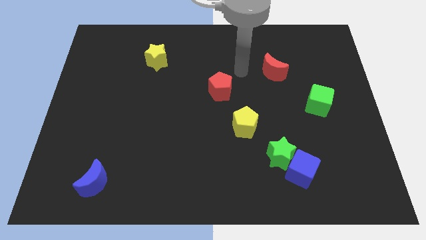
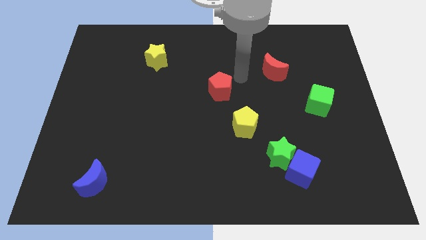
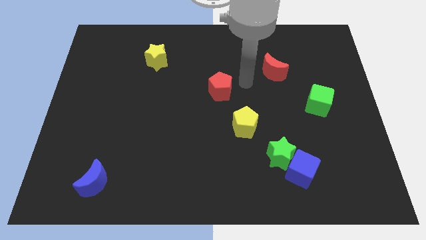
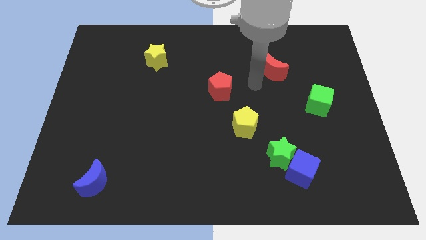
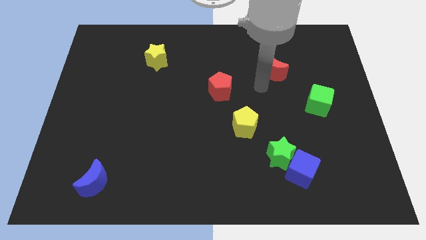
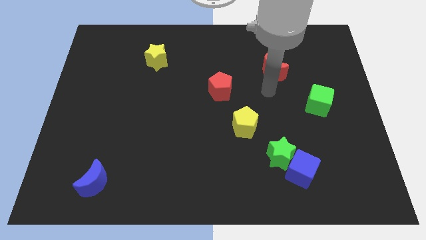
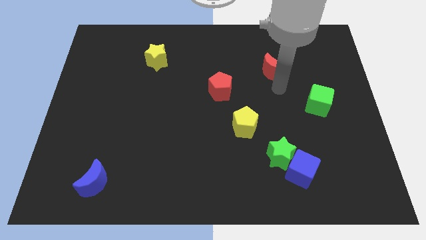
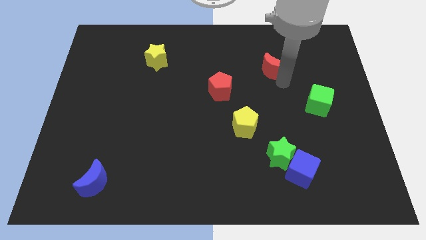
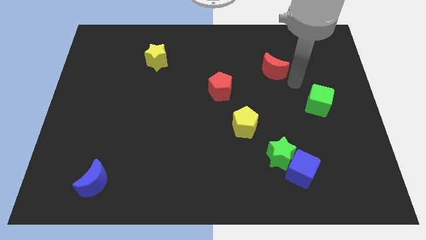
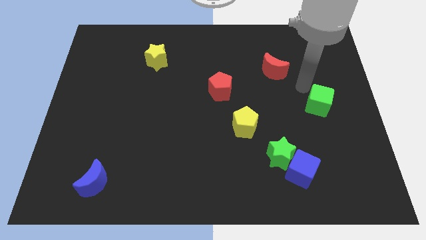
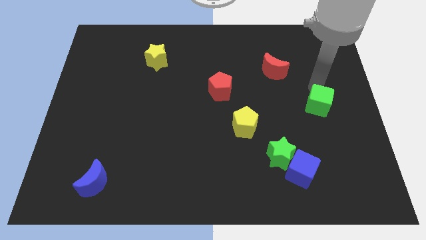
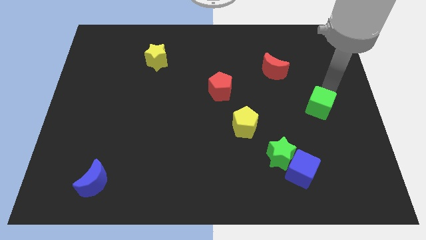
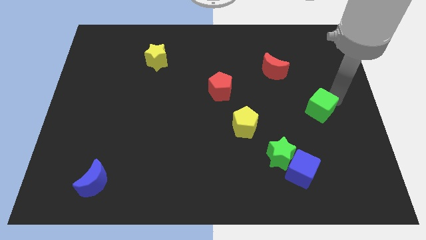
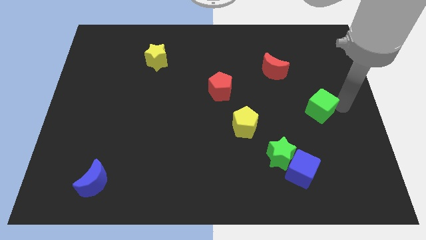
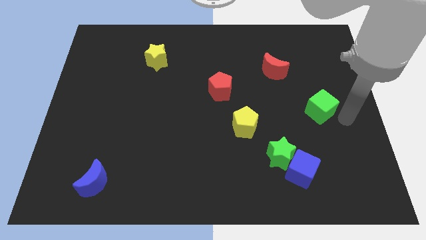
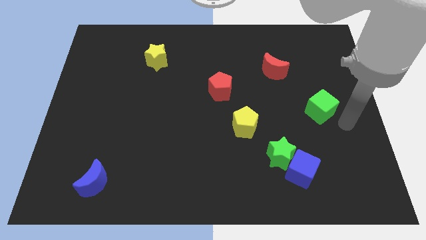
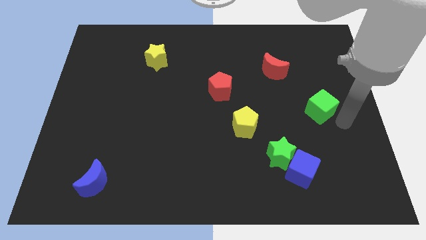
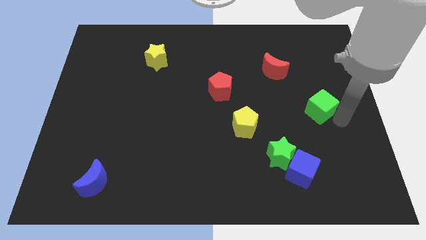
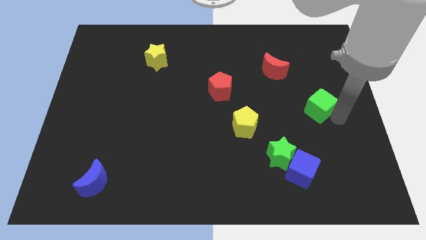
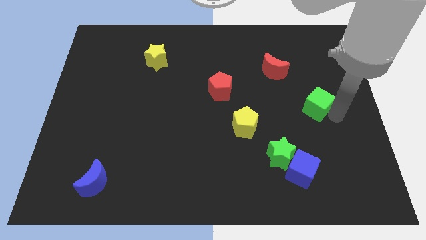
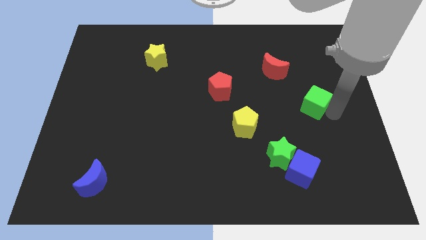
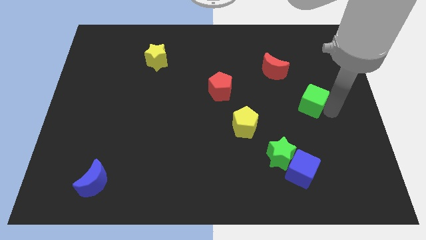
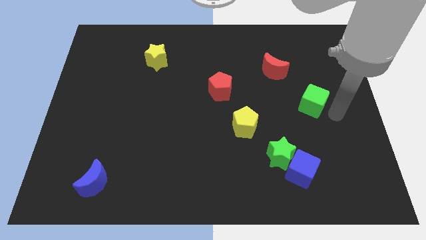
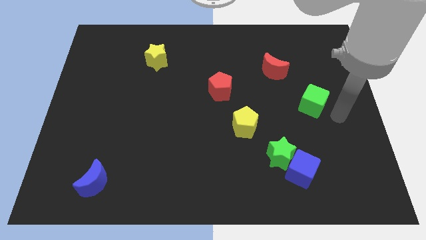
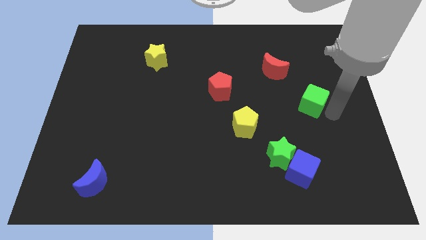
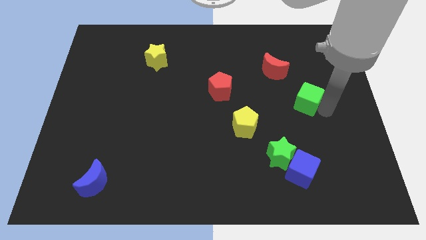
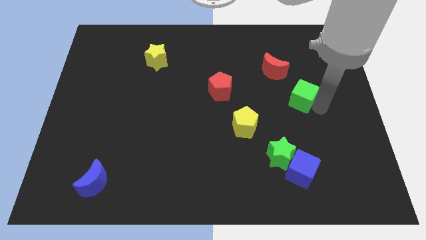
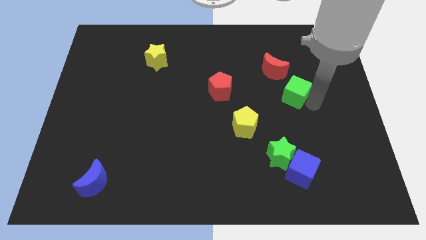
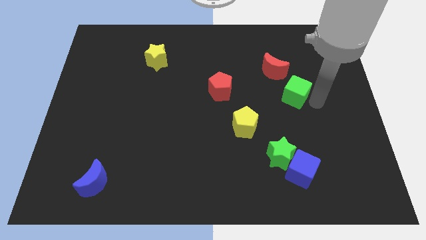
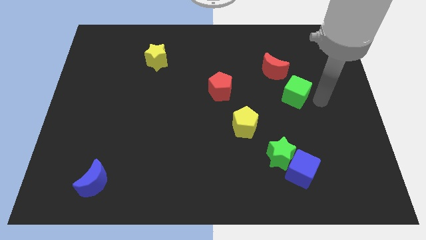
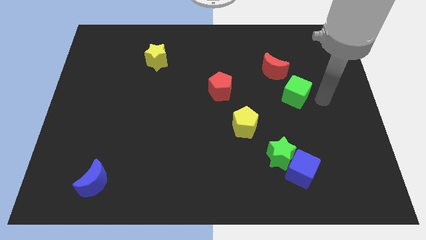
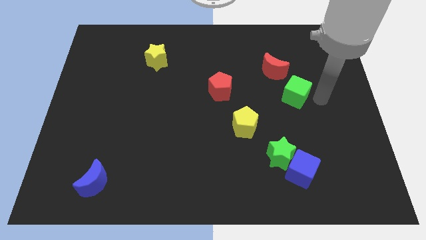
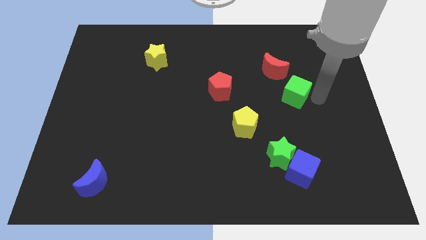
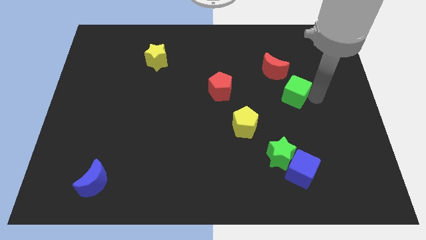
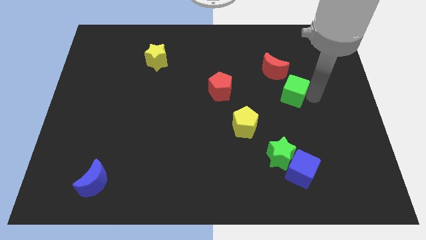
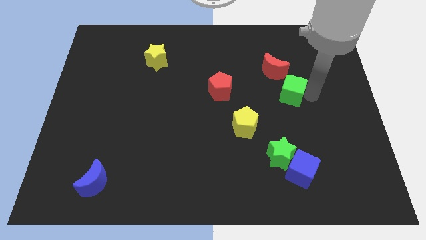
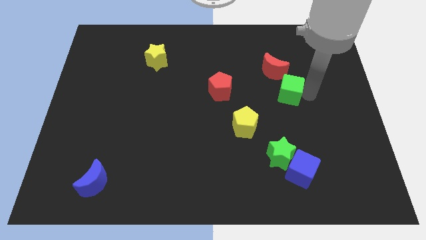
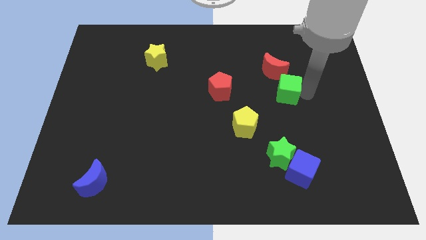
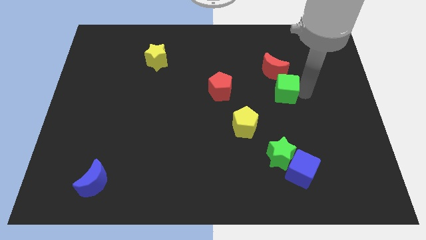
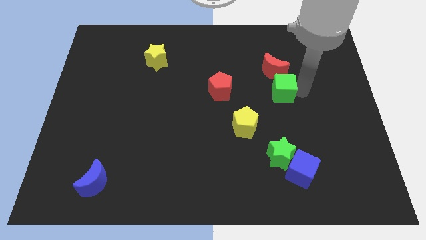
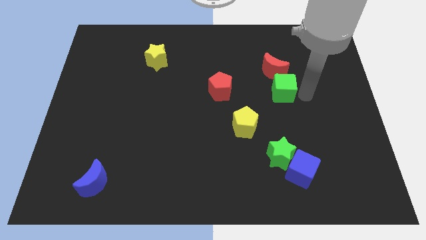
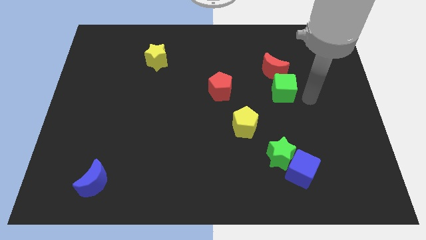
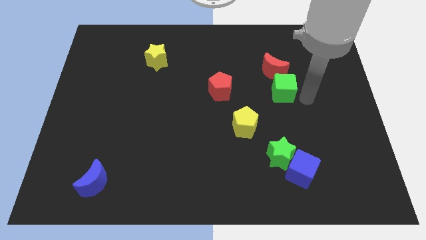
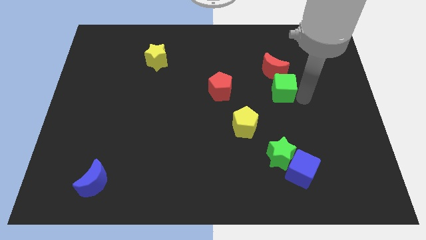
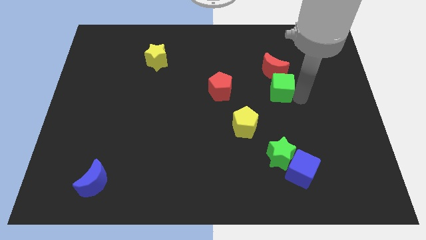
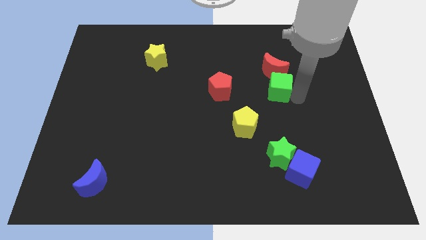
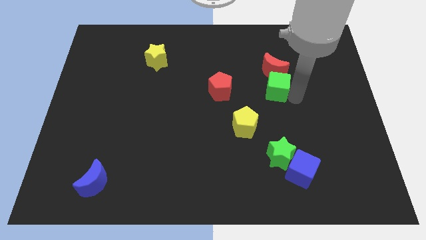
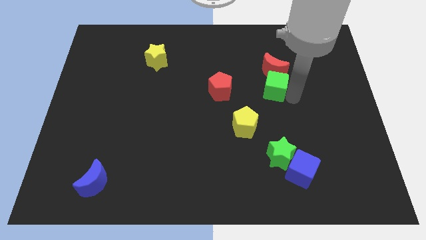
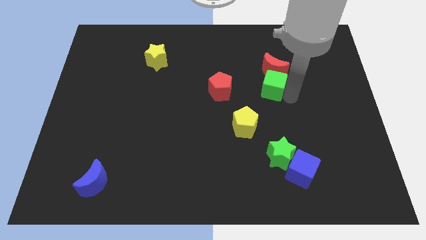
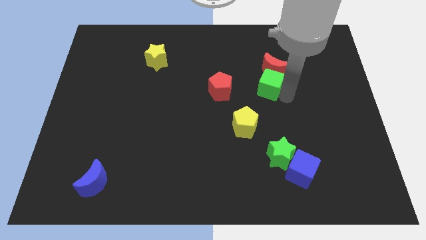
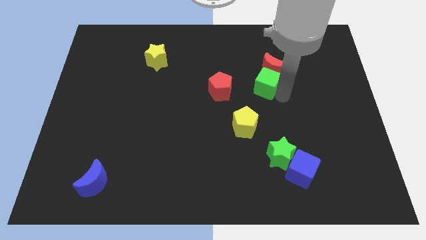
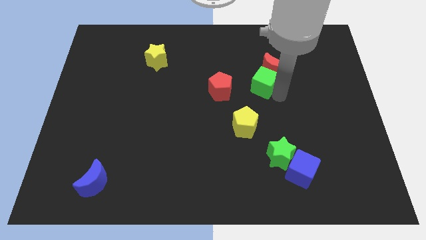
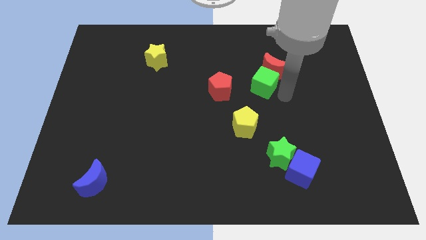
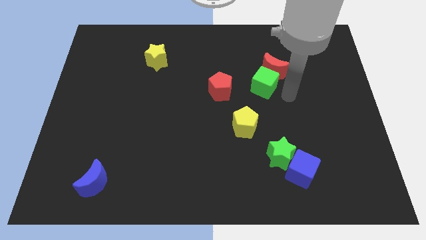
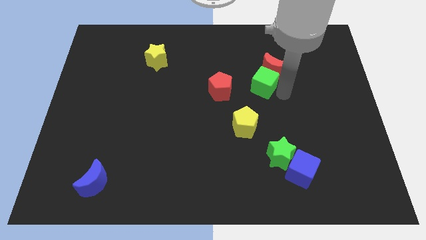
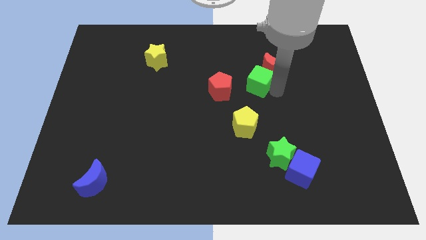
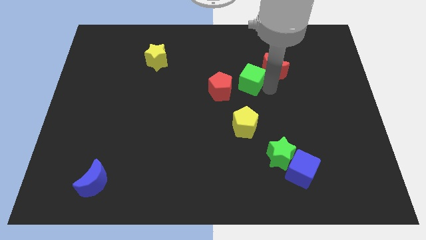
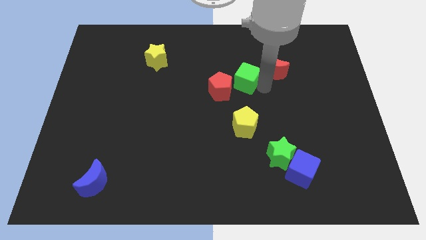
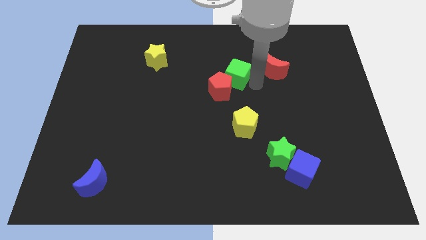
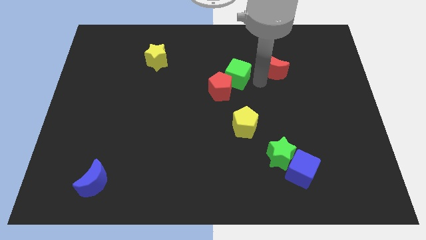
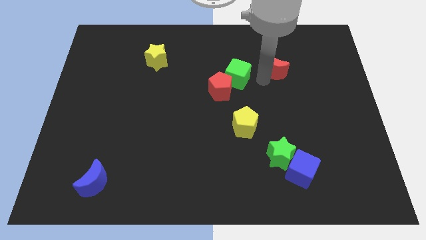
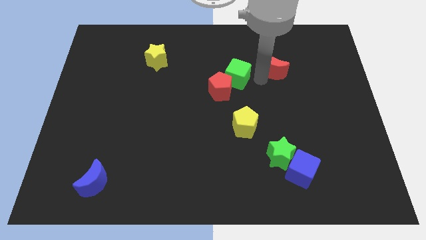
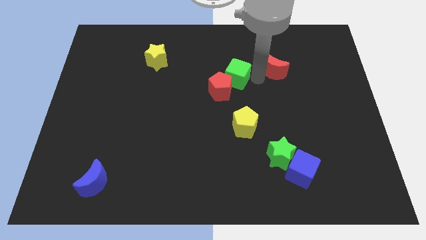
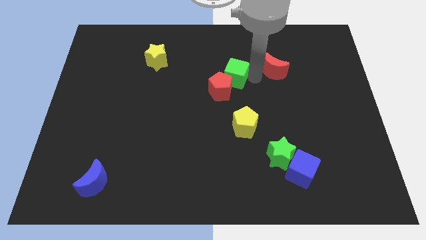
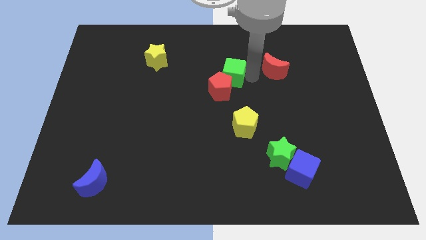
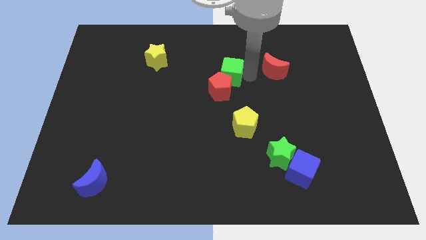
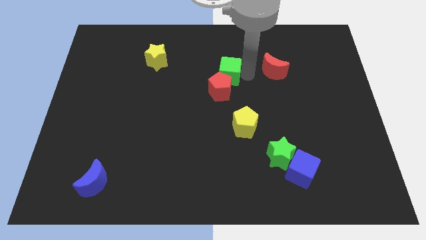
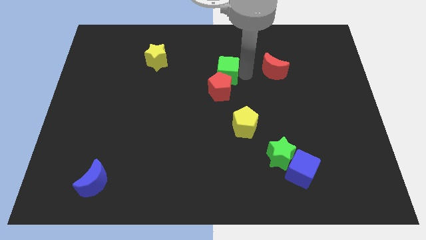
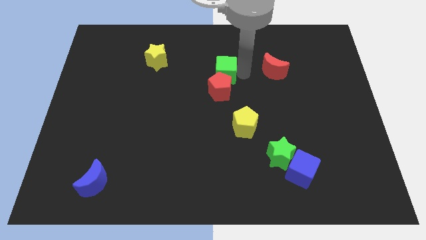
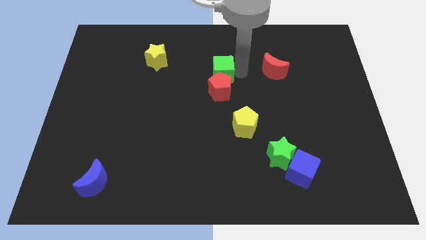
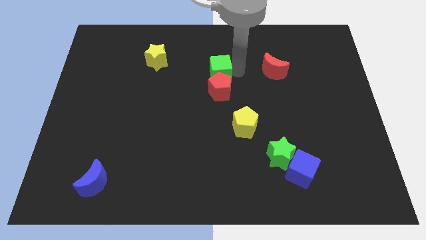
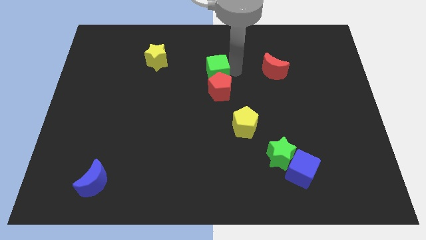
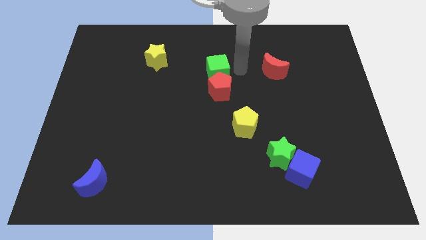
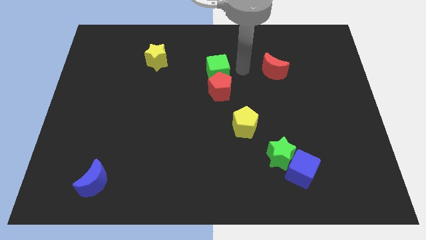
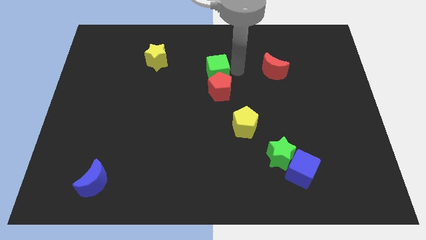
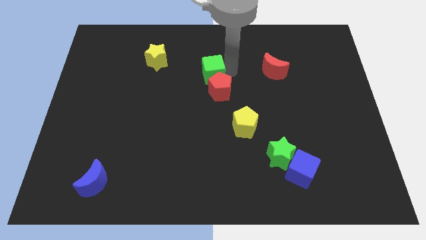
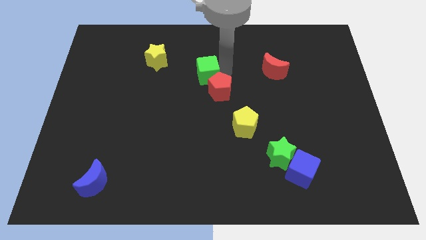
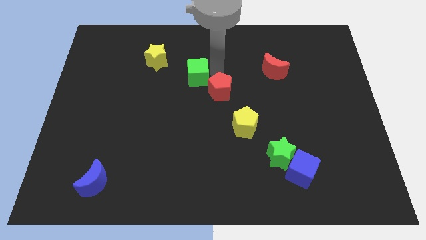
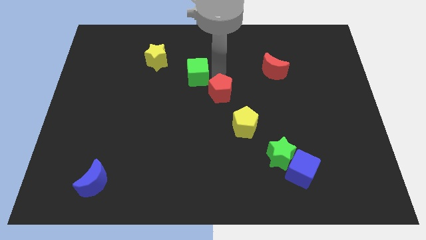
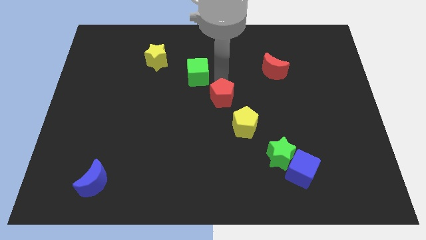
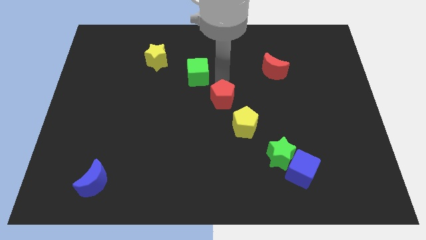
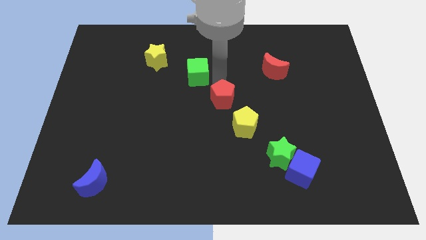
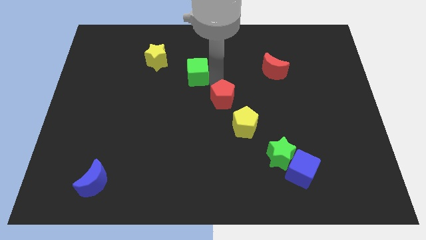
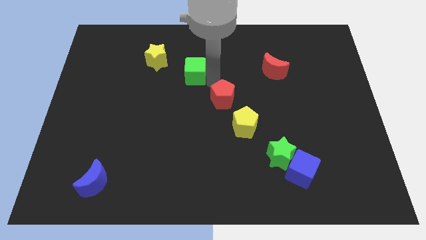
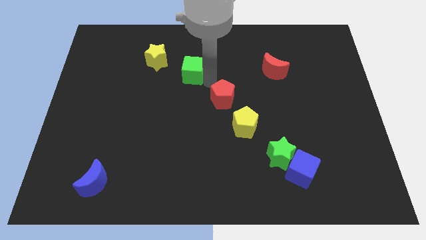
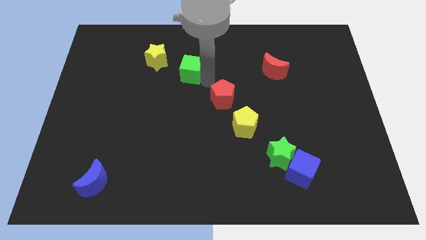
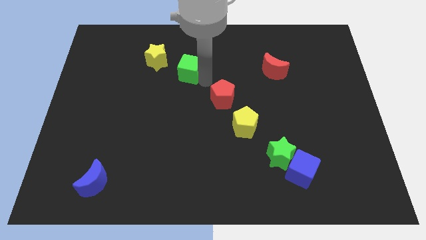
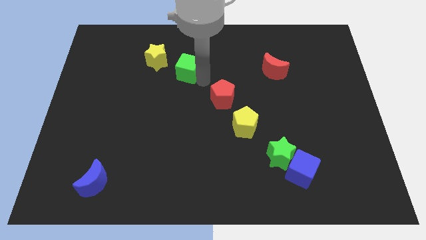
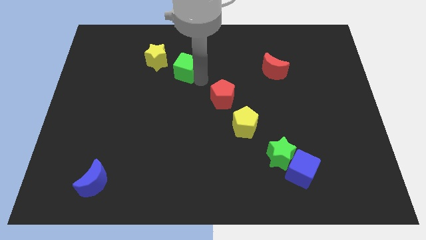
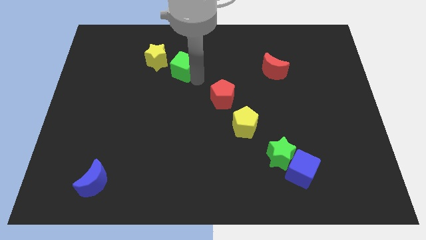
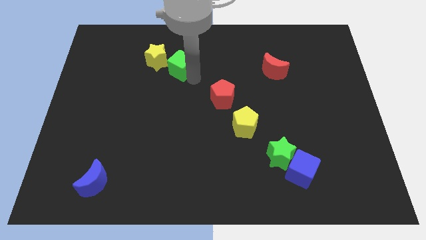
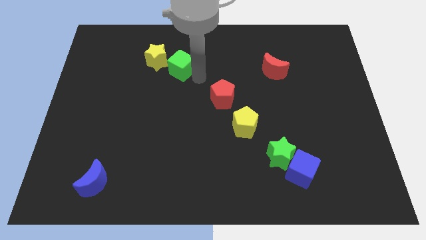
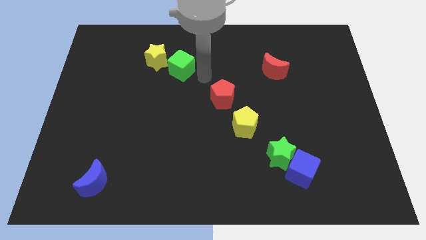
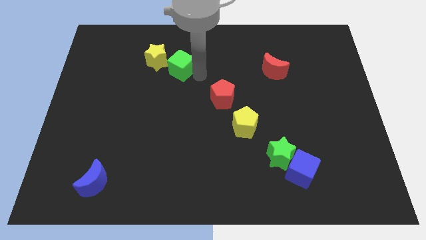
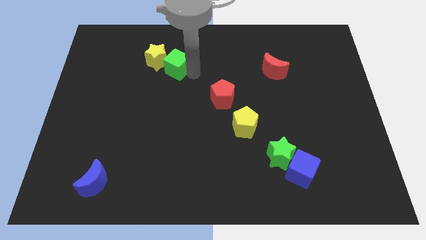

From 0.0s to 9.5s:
put the green cube next to the yellow star
